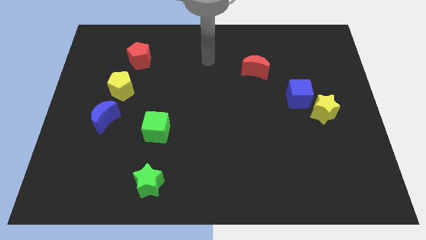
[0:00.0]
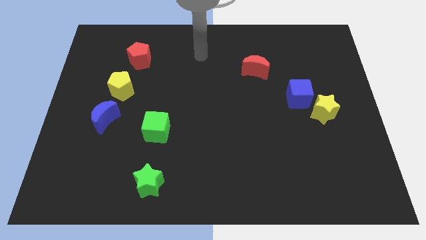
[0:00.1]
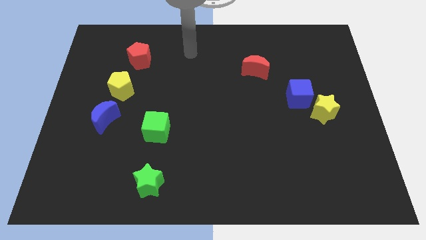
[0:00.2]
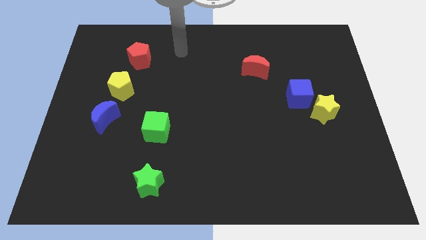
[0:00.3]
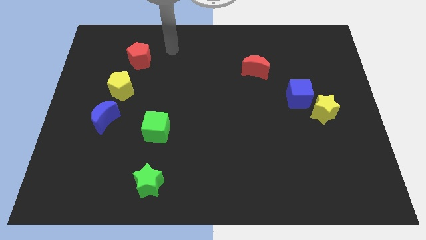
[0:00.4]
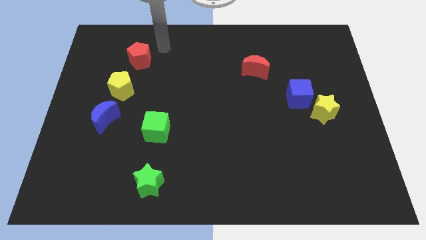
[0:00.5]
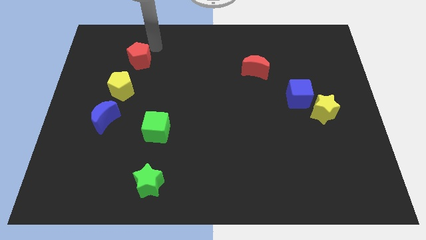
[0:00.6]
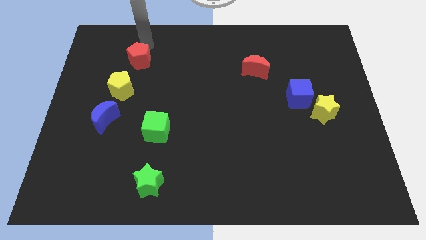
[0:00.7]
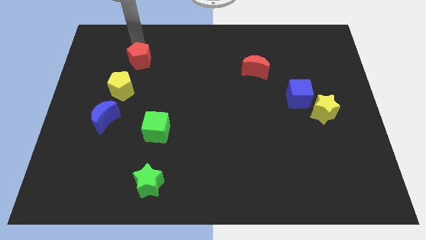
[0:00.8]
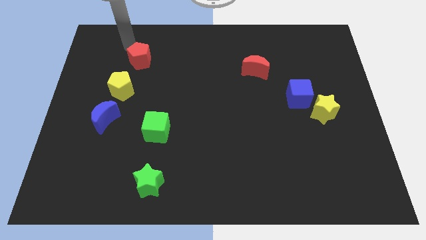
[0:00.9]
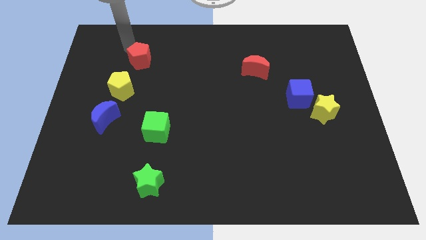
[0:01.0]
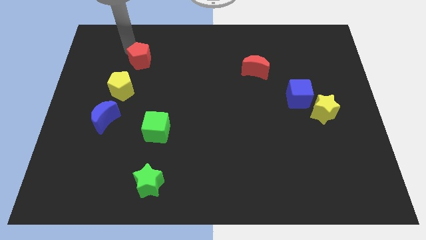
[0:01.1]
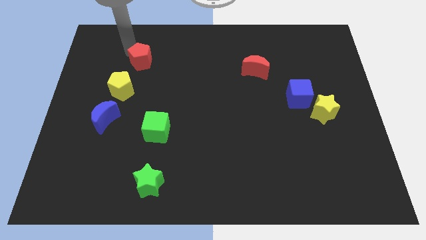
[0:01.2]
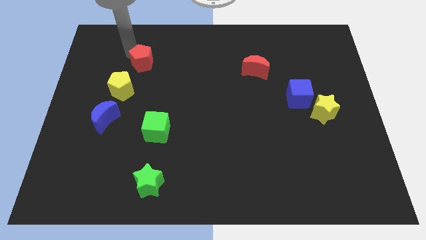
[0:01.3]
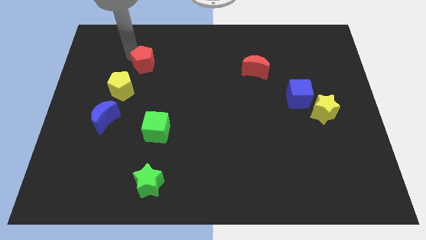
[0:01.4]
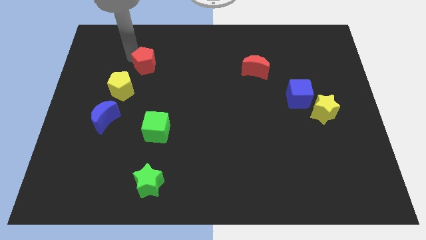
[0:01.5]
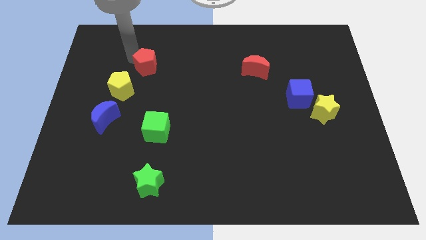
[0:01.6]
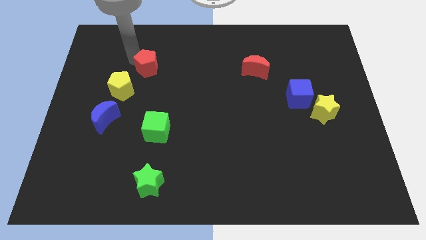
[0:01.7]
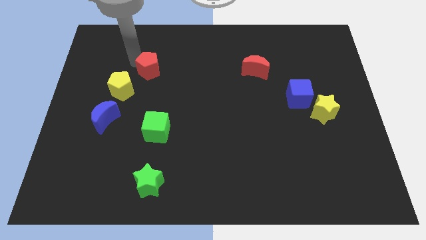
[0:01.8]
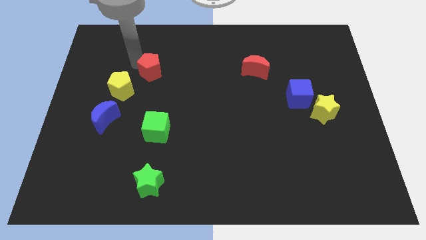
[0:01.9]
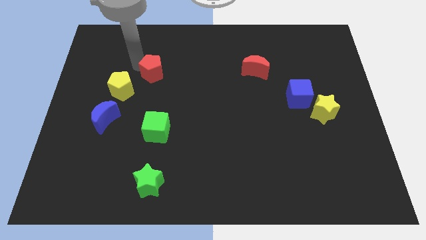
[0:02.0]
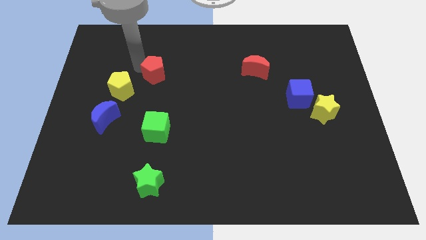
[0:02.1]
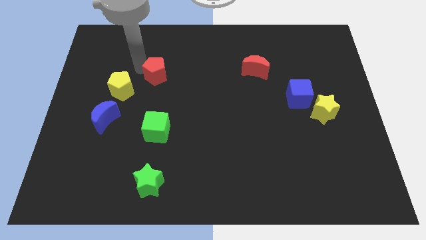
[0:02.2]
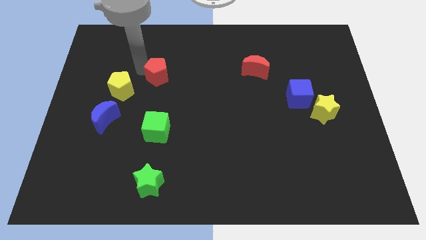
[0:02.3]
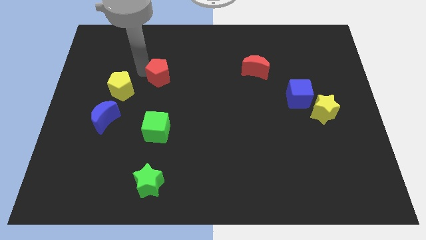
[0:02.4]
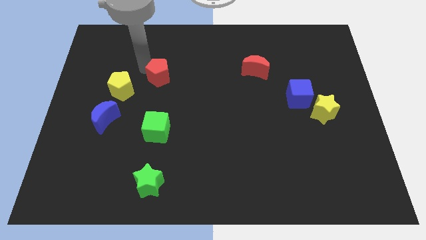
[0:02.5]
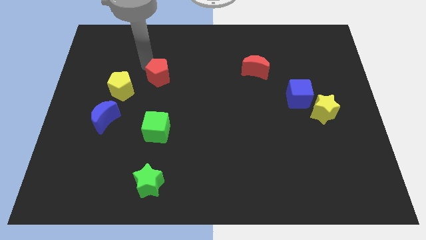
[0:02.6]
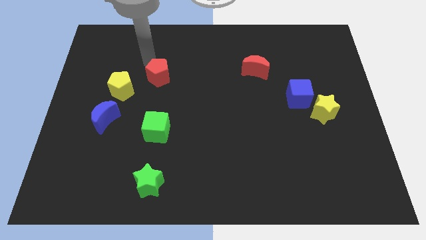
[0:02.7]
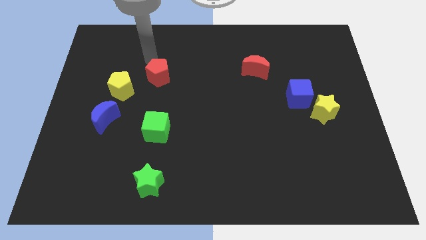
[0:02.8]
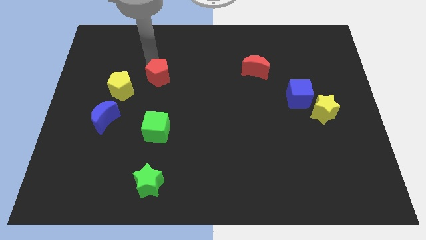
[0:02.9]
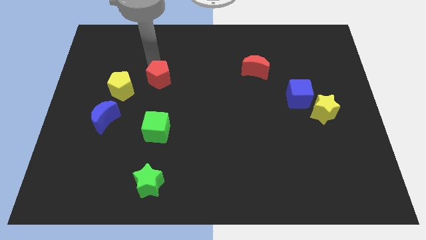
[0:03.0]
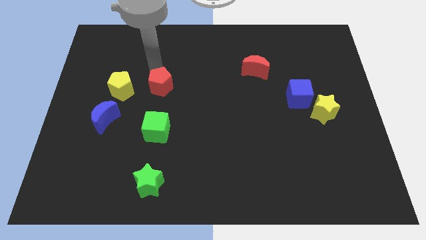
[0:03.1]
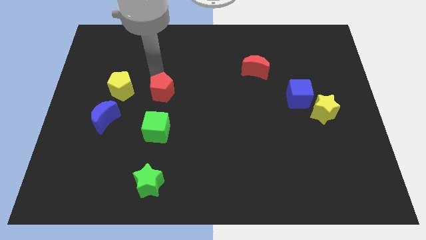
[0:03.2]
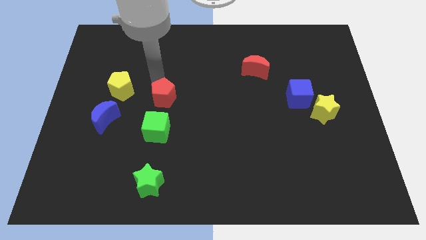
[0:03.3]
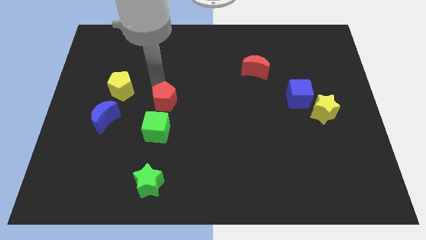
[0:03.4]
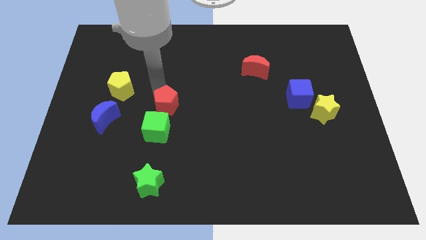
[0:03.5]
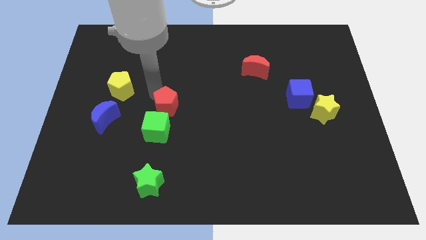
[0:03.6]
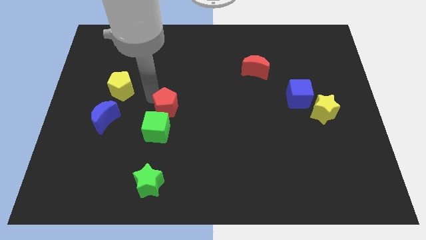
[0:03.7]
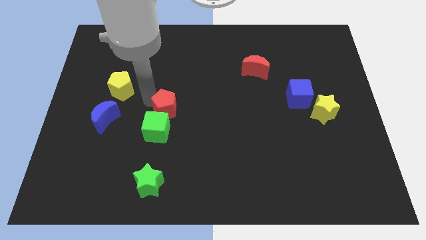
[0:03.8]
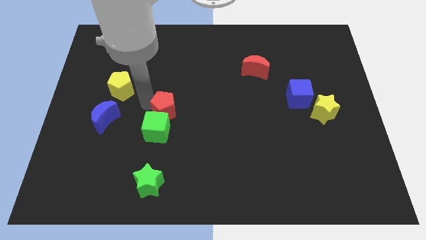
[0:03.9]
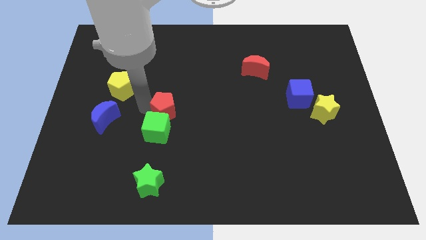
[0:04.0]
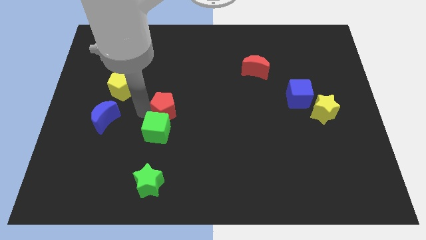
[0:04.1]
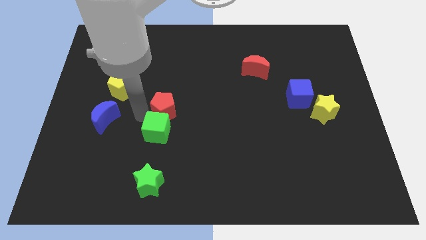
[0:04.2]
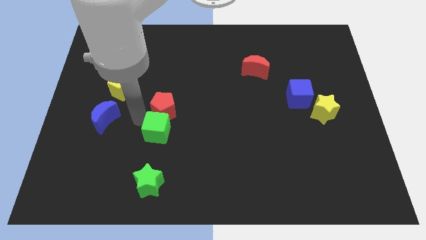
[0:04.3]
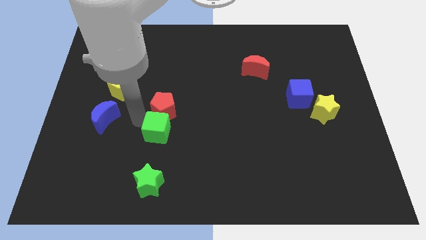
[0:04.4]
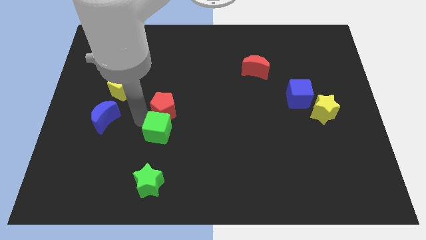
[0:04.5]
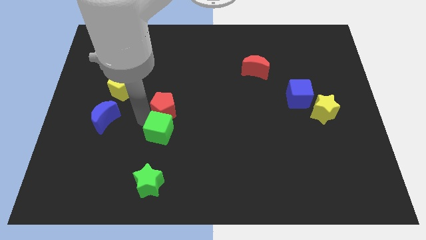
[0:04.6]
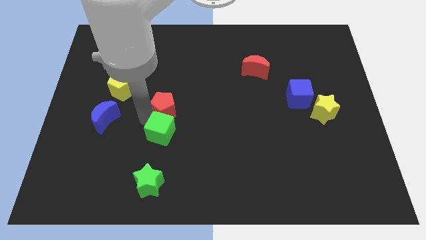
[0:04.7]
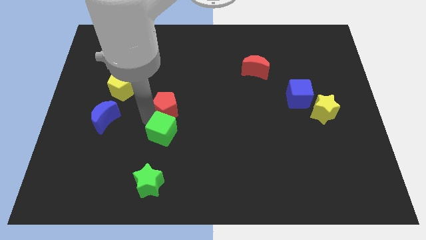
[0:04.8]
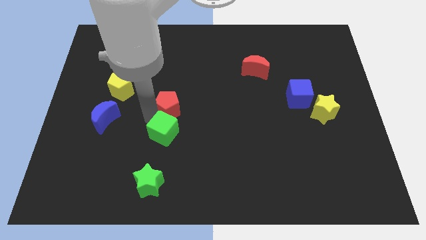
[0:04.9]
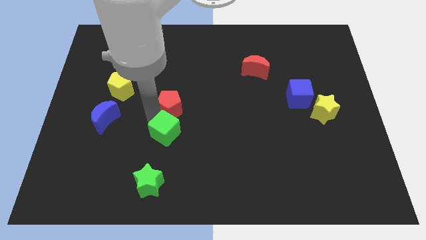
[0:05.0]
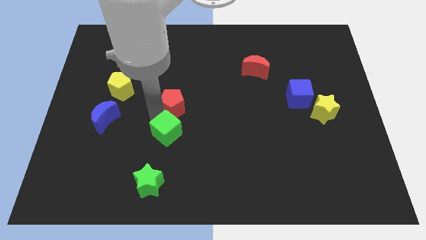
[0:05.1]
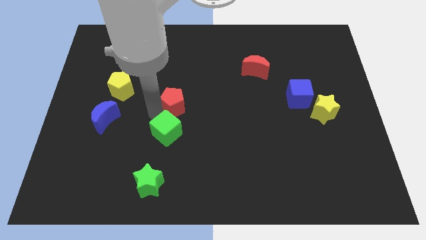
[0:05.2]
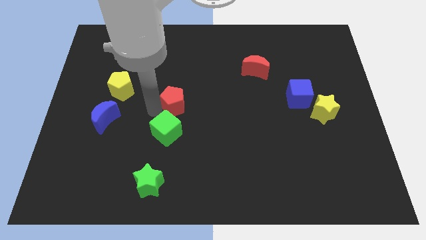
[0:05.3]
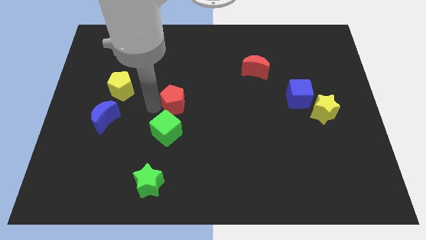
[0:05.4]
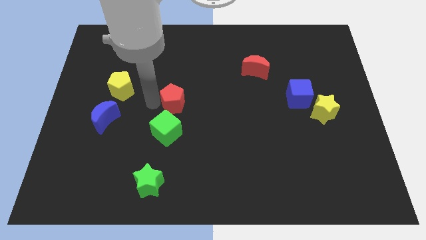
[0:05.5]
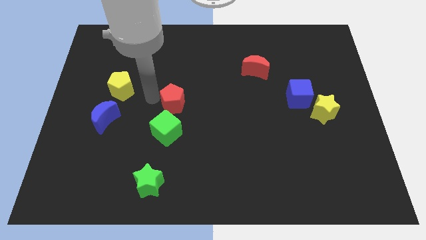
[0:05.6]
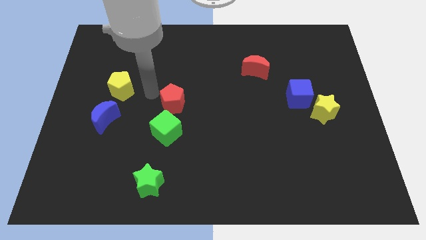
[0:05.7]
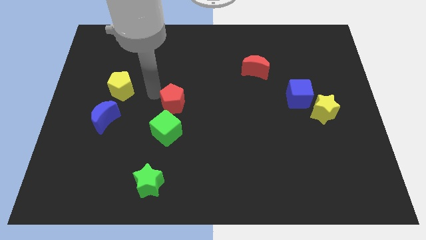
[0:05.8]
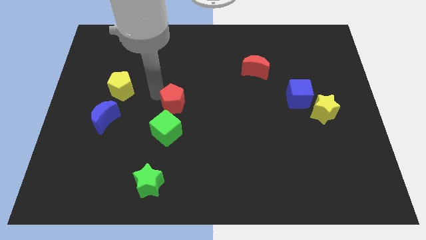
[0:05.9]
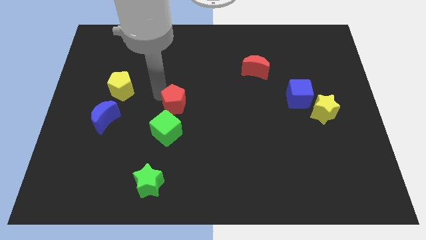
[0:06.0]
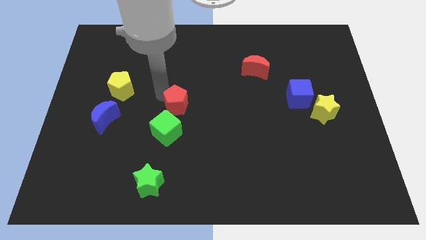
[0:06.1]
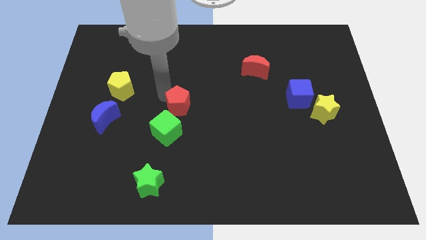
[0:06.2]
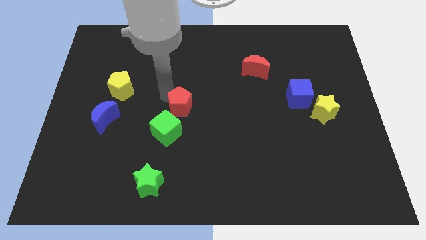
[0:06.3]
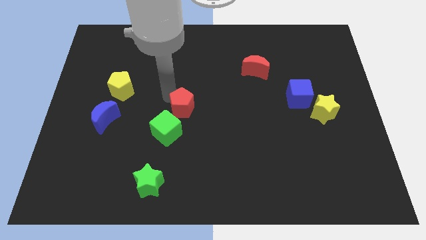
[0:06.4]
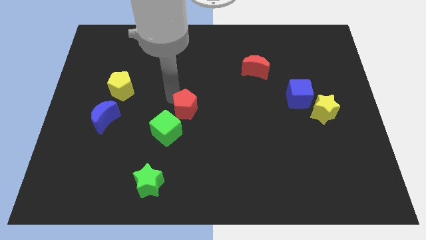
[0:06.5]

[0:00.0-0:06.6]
slide the red pentagon downwards and right diagonally

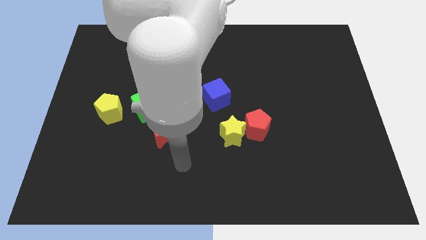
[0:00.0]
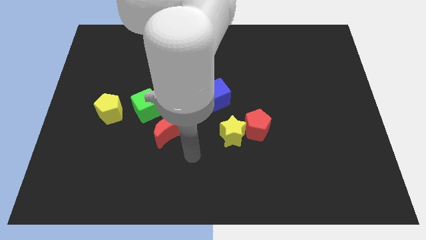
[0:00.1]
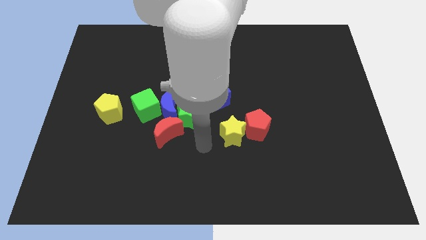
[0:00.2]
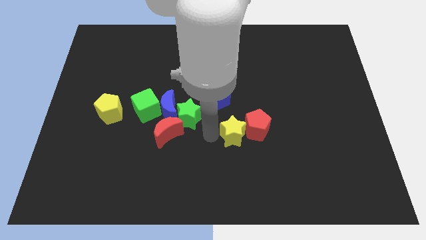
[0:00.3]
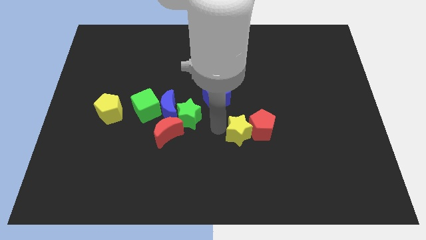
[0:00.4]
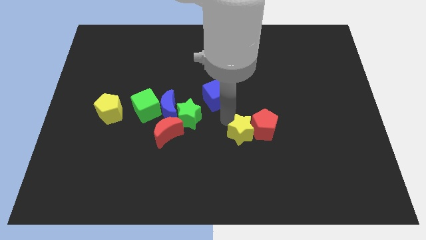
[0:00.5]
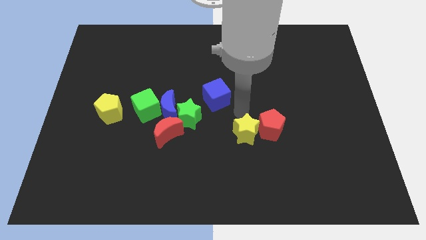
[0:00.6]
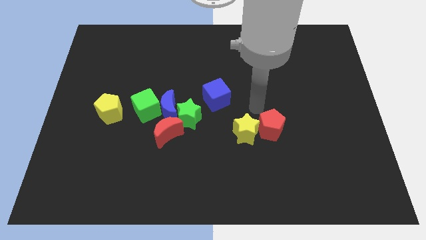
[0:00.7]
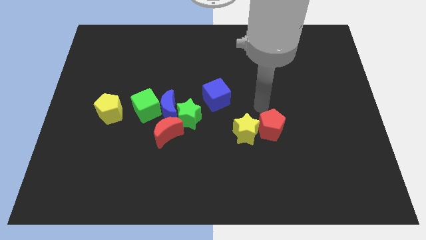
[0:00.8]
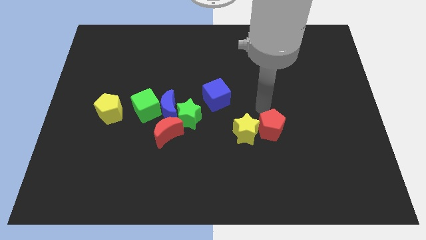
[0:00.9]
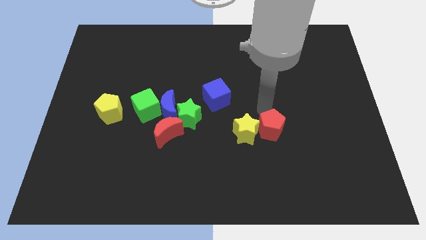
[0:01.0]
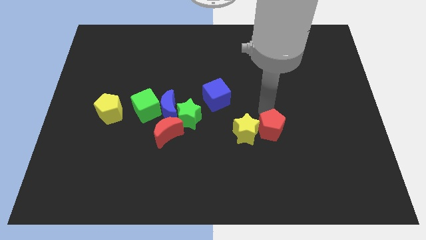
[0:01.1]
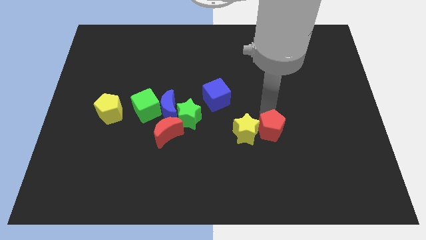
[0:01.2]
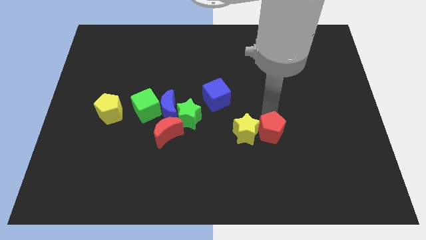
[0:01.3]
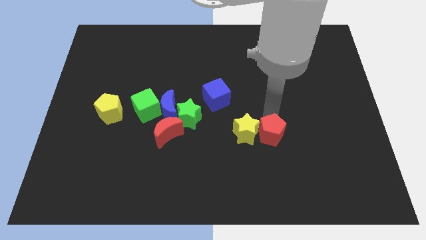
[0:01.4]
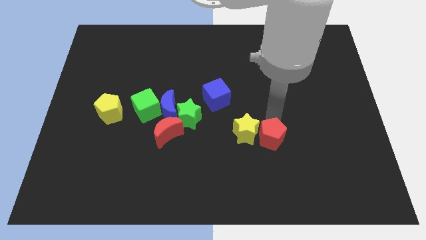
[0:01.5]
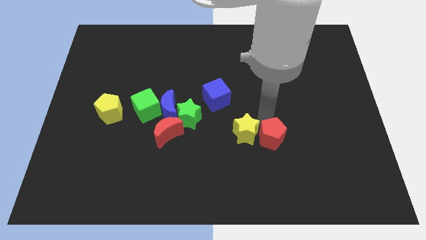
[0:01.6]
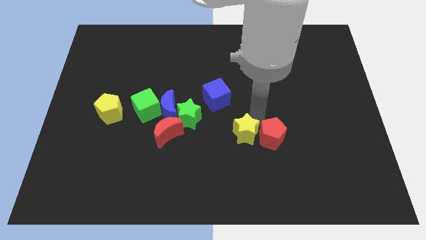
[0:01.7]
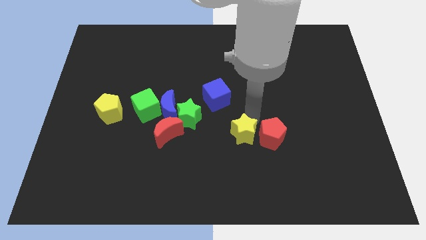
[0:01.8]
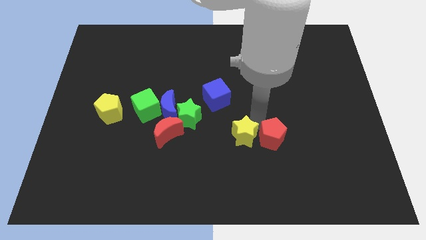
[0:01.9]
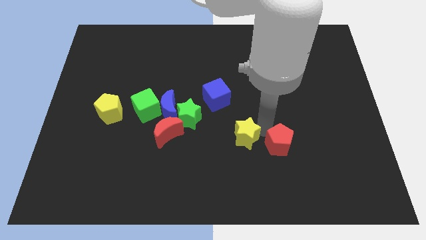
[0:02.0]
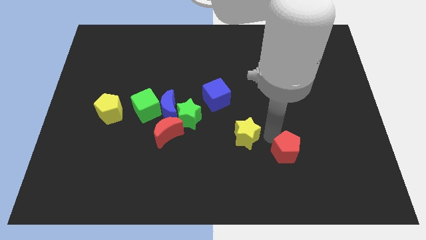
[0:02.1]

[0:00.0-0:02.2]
slightly push the red pentagon diagonally downwards and right
